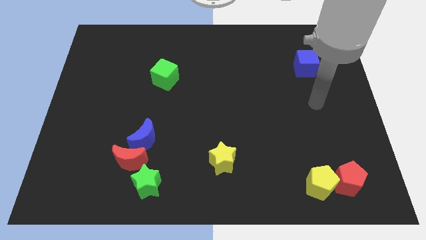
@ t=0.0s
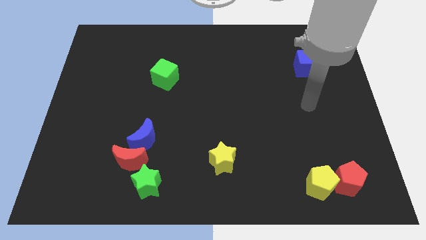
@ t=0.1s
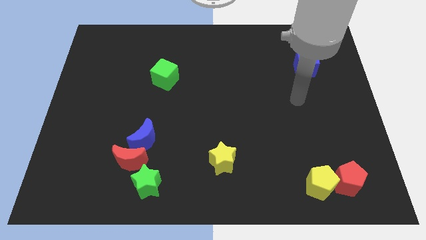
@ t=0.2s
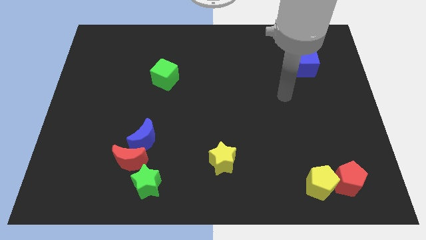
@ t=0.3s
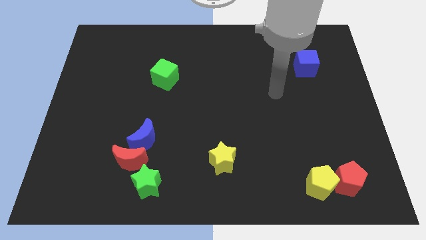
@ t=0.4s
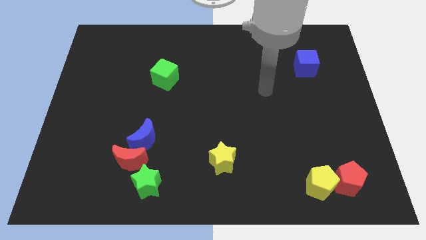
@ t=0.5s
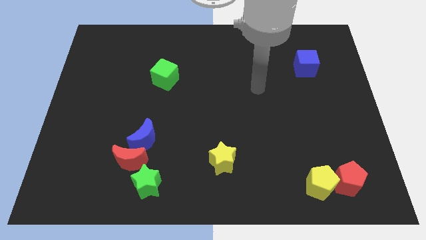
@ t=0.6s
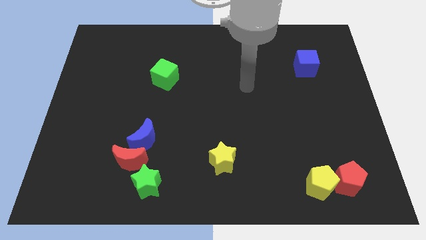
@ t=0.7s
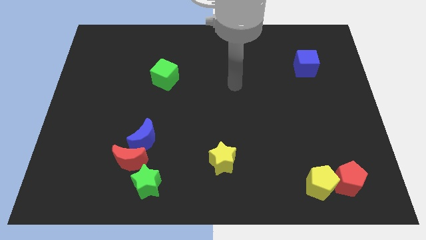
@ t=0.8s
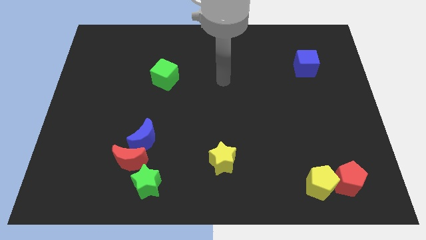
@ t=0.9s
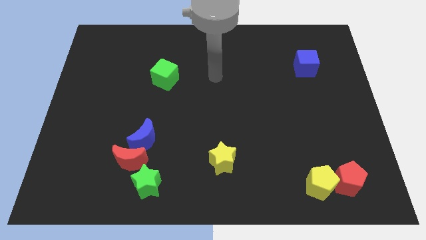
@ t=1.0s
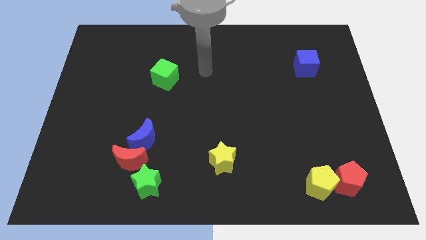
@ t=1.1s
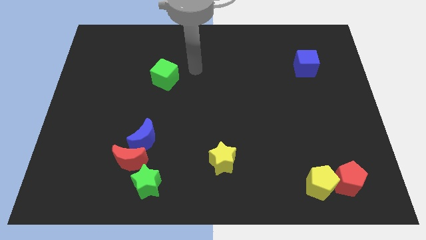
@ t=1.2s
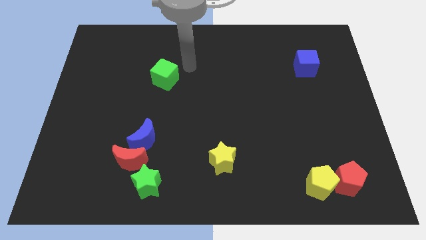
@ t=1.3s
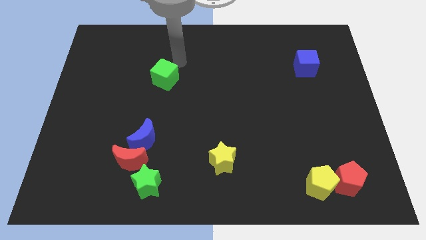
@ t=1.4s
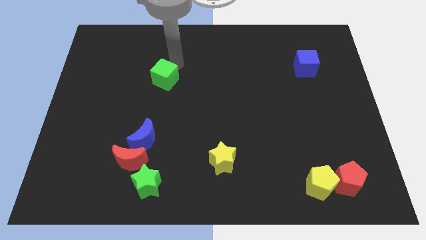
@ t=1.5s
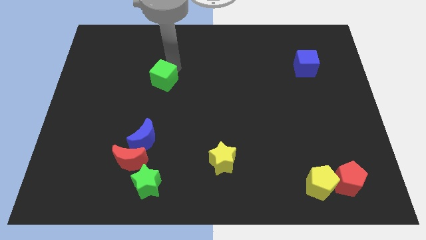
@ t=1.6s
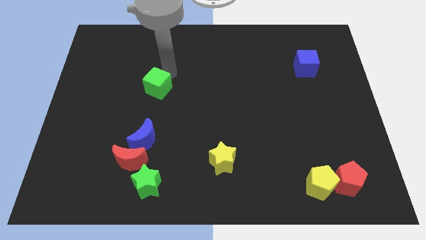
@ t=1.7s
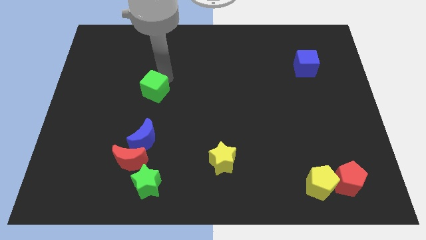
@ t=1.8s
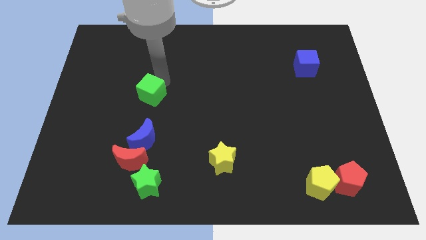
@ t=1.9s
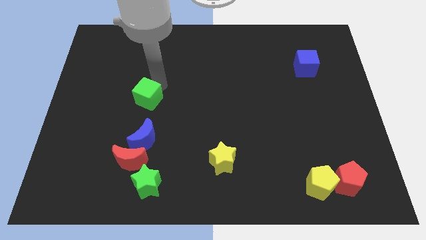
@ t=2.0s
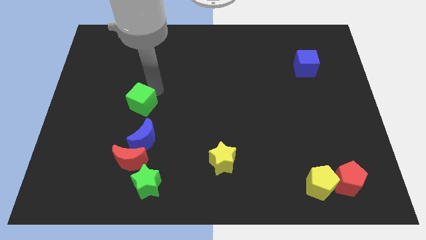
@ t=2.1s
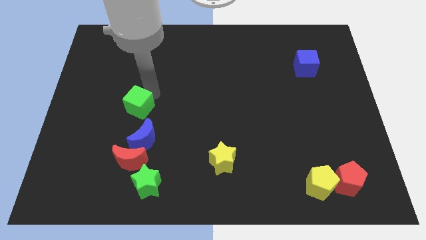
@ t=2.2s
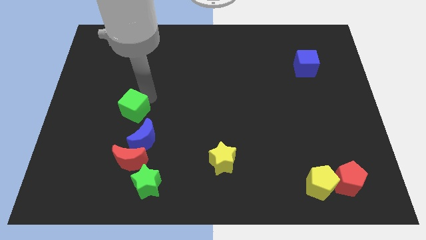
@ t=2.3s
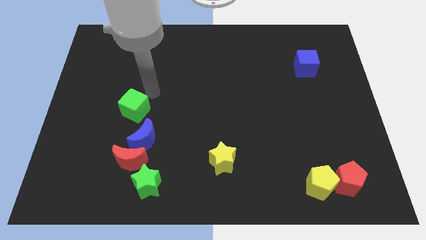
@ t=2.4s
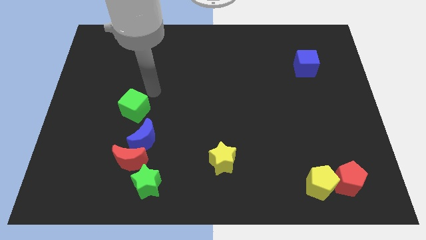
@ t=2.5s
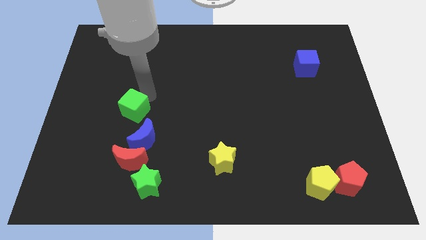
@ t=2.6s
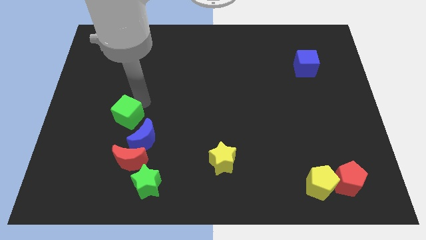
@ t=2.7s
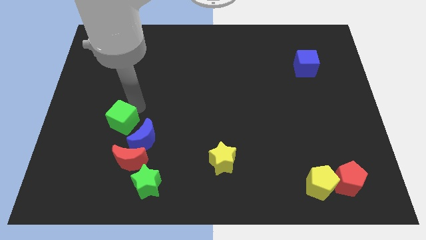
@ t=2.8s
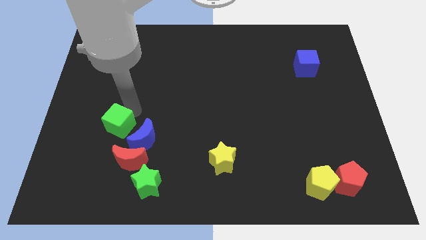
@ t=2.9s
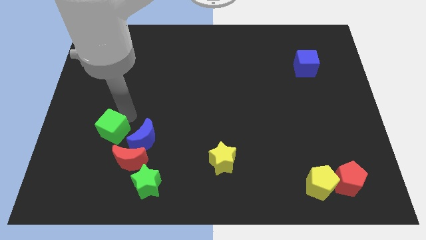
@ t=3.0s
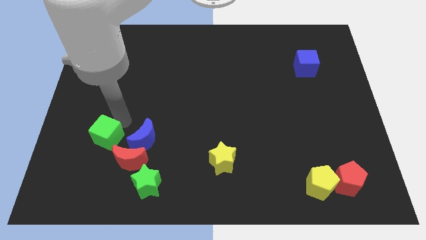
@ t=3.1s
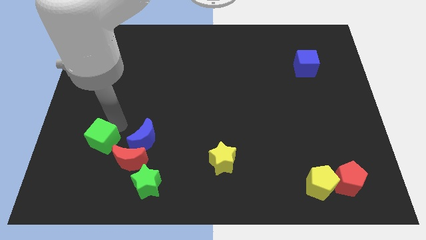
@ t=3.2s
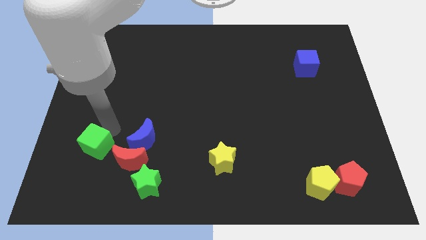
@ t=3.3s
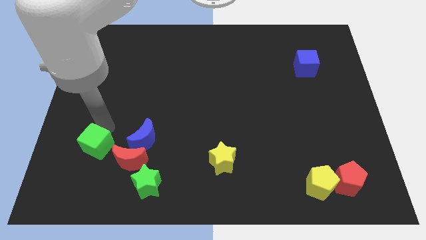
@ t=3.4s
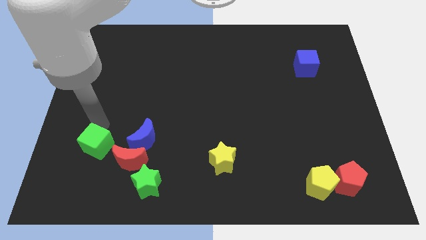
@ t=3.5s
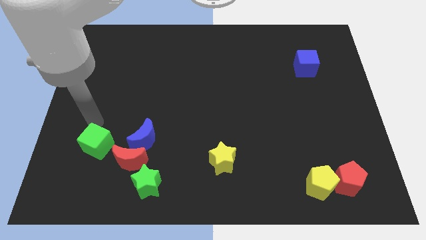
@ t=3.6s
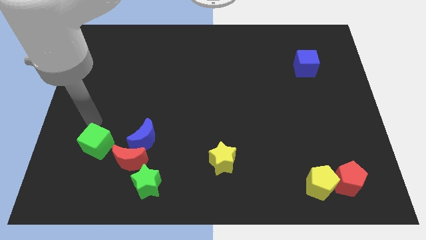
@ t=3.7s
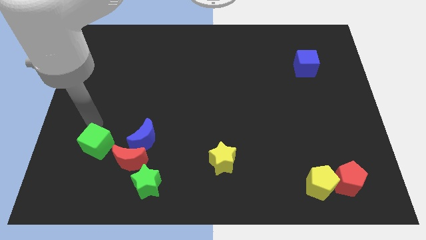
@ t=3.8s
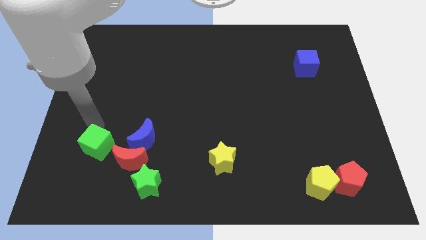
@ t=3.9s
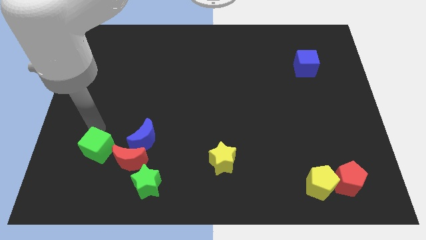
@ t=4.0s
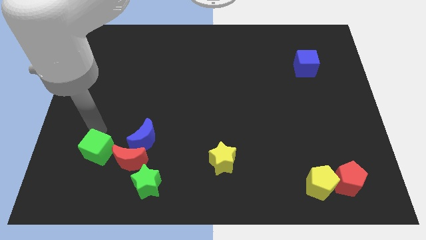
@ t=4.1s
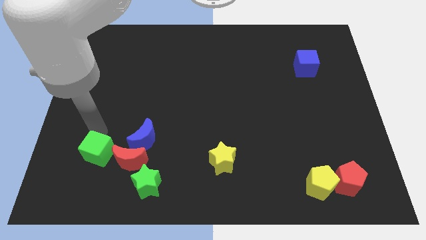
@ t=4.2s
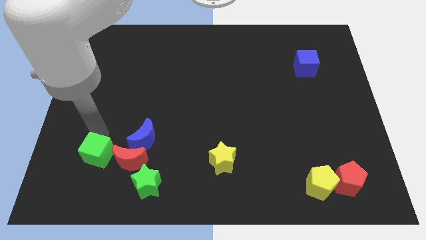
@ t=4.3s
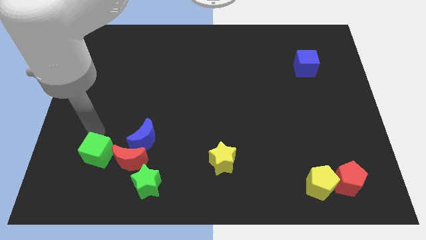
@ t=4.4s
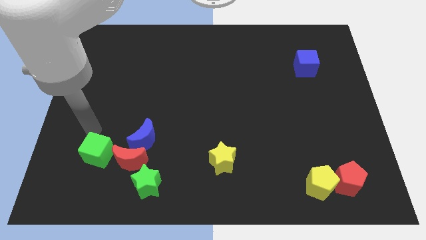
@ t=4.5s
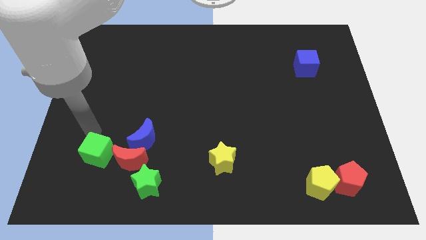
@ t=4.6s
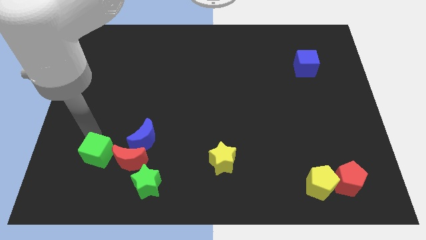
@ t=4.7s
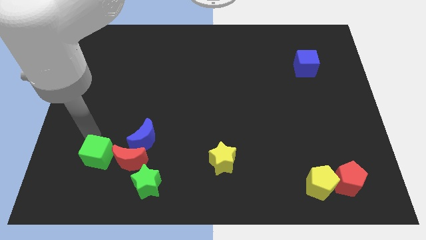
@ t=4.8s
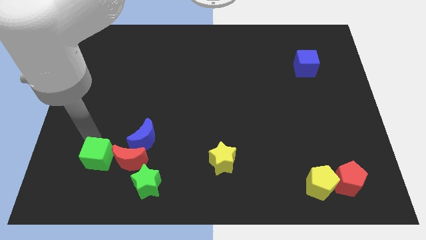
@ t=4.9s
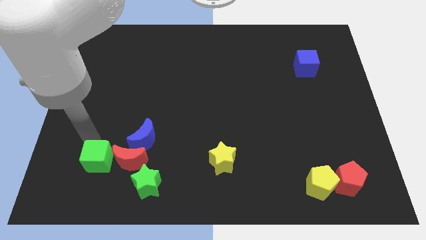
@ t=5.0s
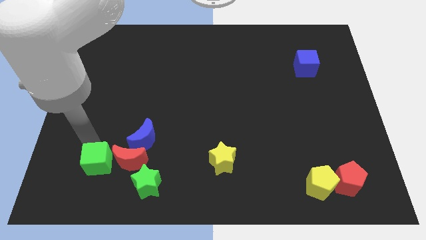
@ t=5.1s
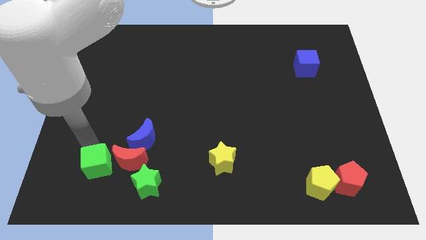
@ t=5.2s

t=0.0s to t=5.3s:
move the green cube just left of the green star

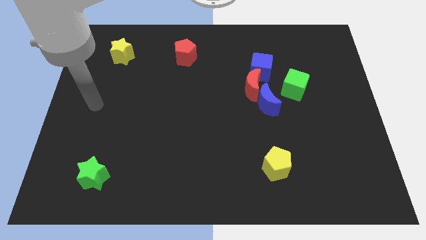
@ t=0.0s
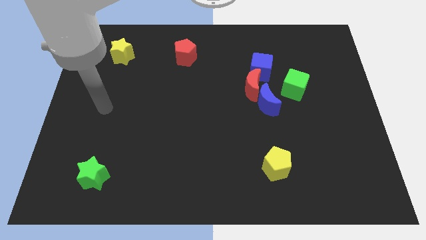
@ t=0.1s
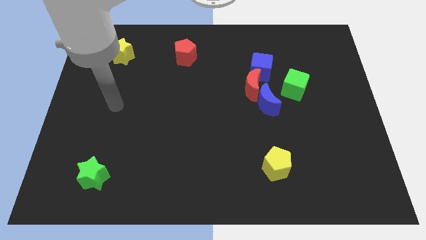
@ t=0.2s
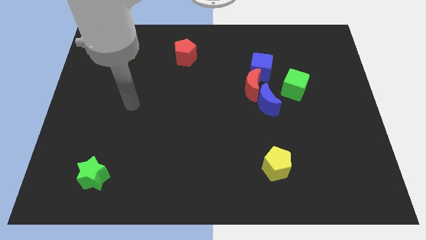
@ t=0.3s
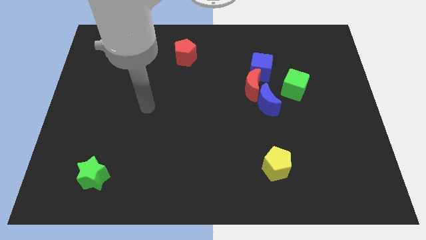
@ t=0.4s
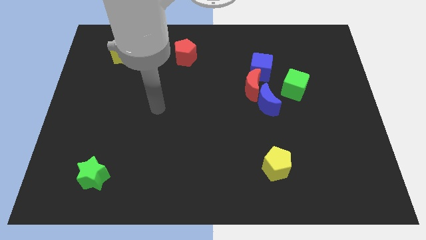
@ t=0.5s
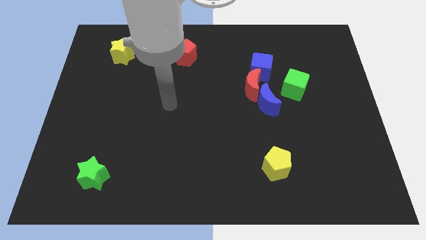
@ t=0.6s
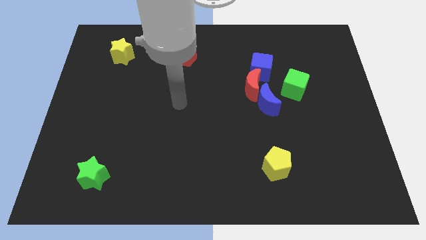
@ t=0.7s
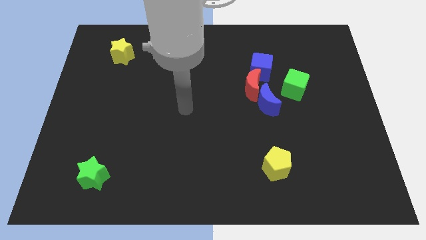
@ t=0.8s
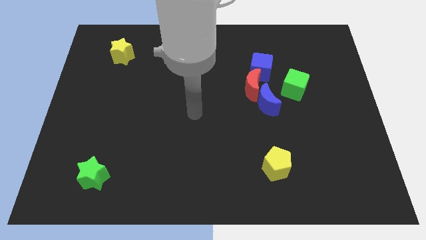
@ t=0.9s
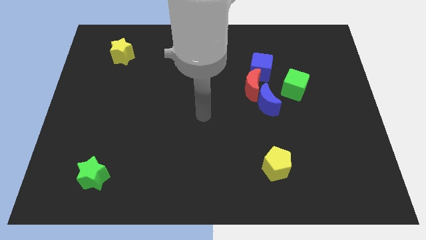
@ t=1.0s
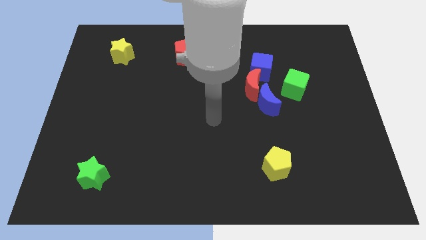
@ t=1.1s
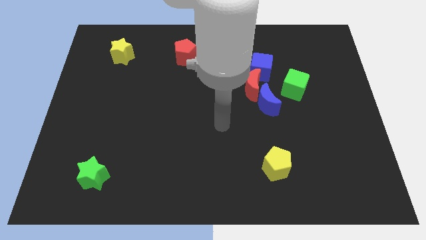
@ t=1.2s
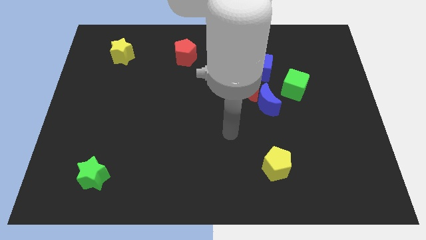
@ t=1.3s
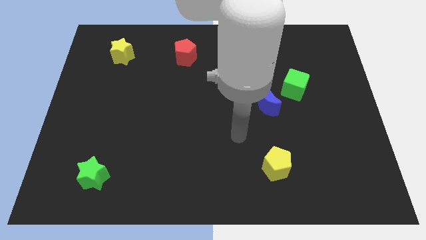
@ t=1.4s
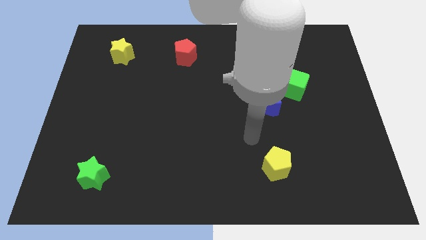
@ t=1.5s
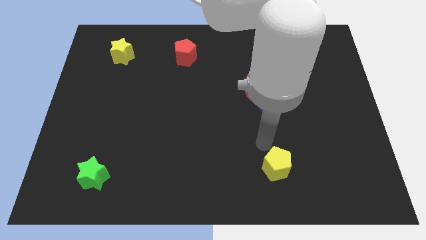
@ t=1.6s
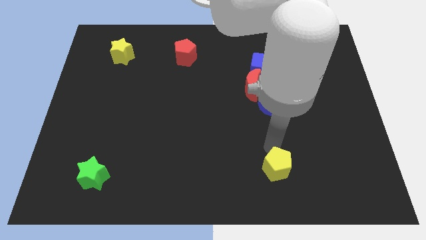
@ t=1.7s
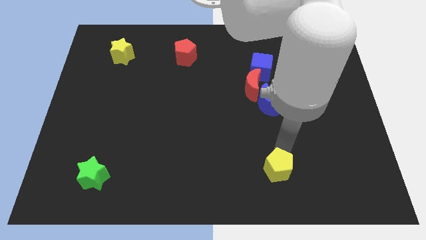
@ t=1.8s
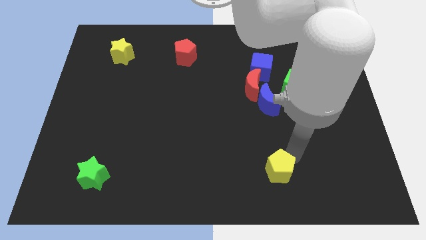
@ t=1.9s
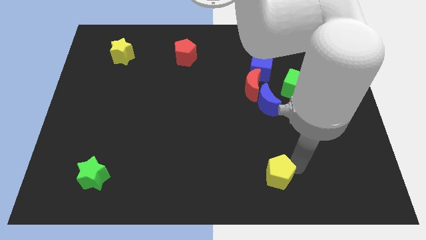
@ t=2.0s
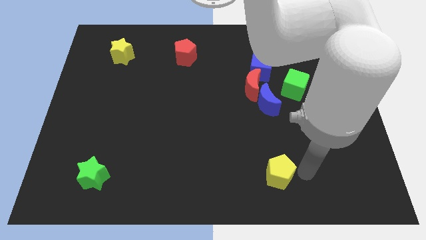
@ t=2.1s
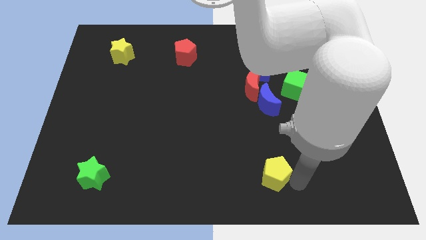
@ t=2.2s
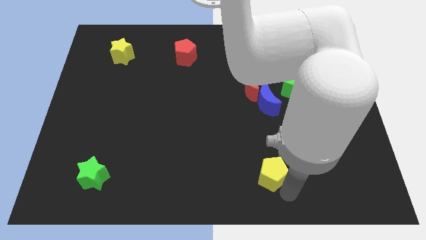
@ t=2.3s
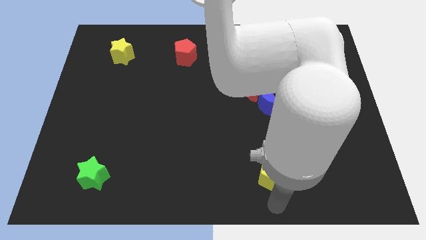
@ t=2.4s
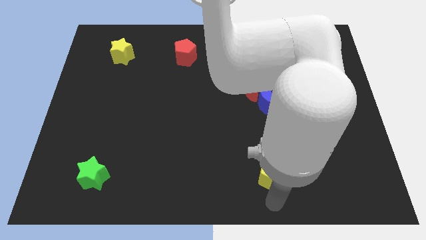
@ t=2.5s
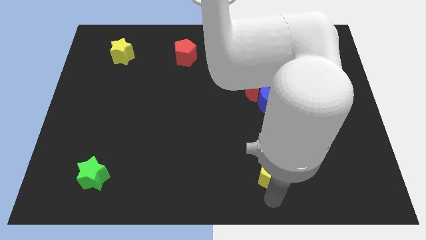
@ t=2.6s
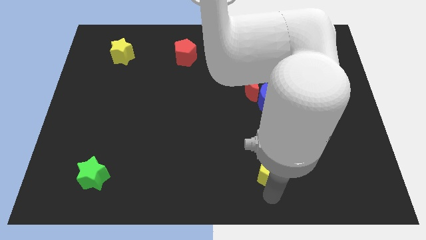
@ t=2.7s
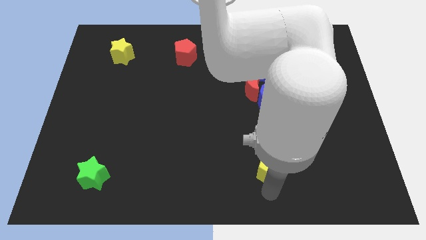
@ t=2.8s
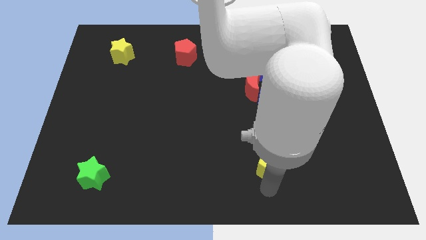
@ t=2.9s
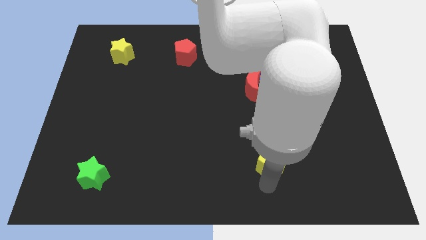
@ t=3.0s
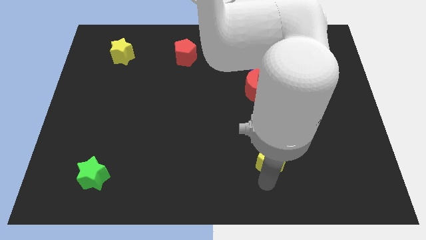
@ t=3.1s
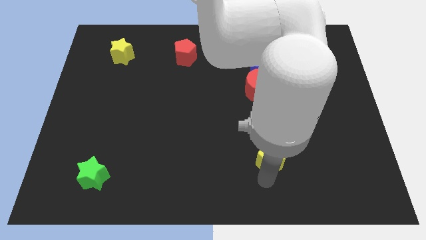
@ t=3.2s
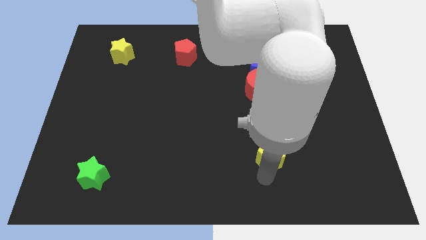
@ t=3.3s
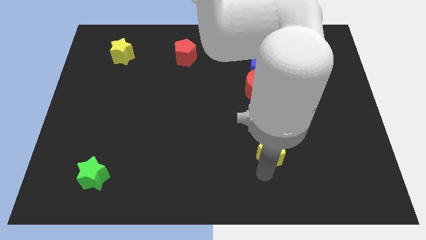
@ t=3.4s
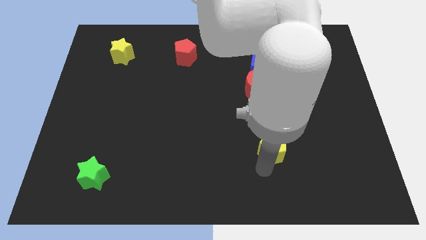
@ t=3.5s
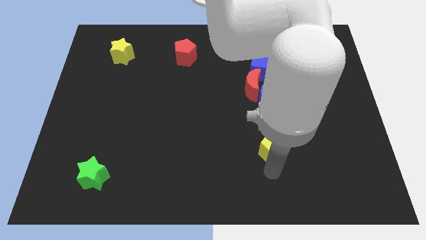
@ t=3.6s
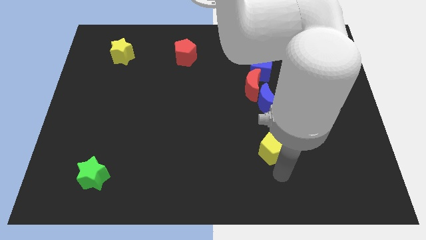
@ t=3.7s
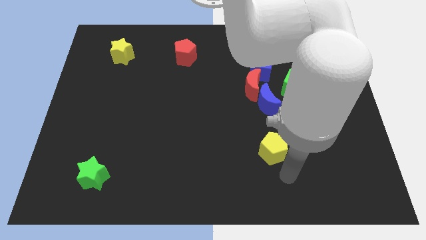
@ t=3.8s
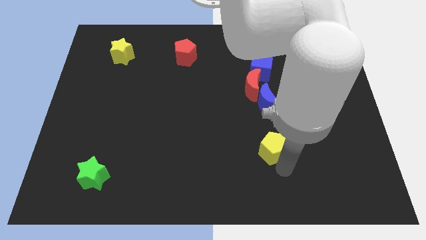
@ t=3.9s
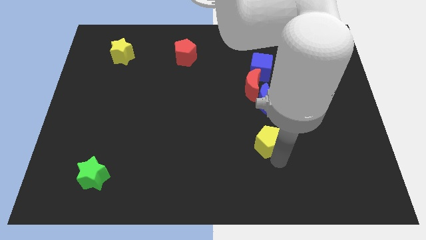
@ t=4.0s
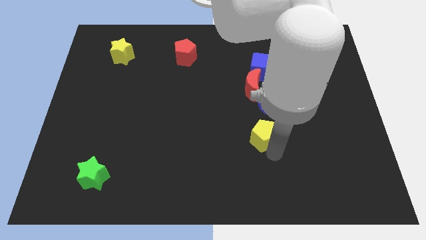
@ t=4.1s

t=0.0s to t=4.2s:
slide the yellow pentagon to the bottom side of the red moon
